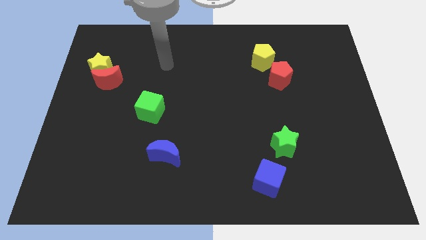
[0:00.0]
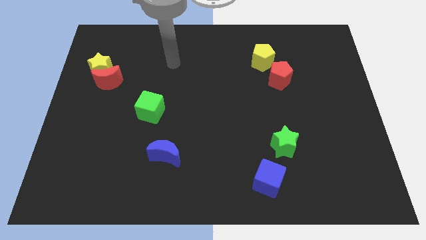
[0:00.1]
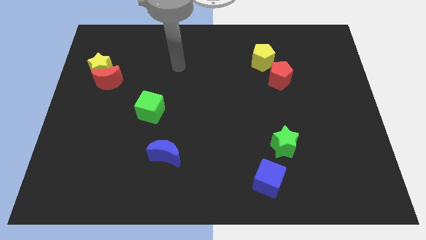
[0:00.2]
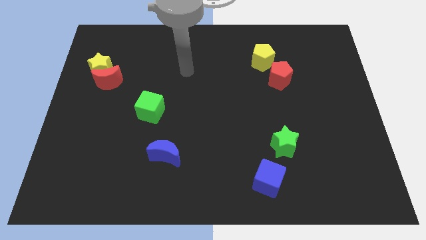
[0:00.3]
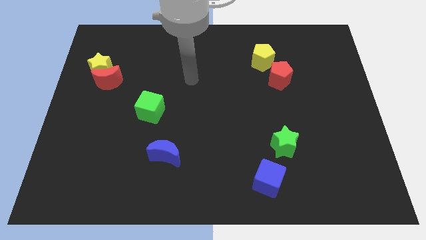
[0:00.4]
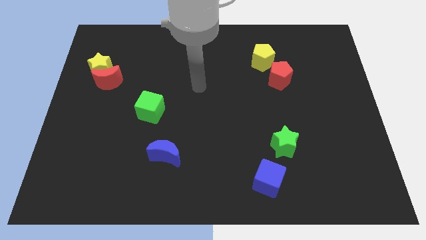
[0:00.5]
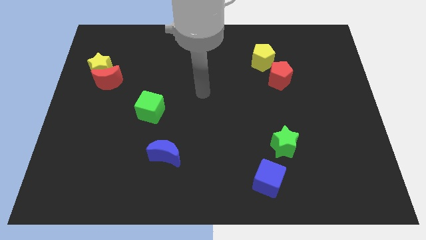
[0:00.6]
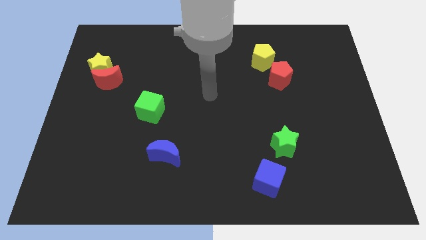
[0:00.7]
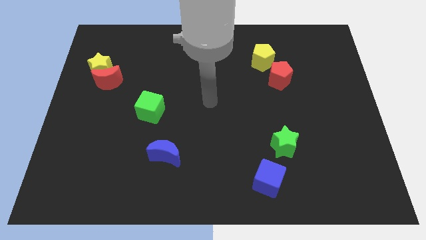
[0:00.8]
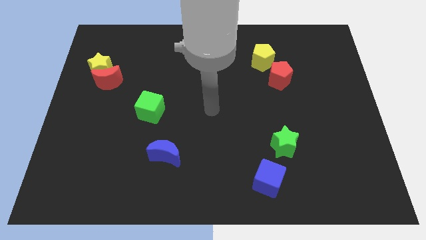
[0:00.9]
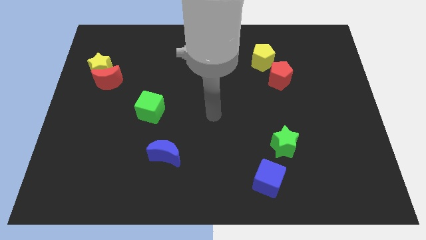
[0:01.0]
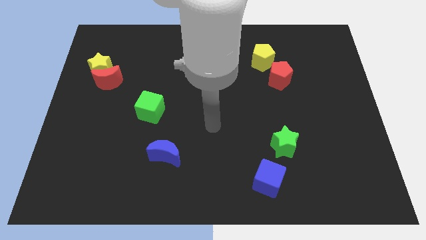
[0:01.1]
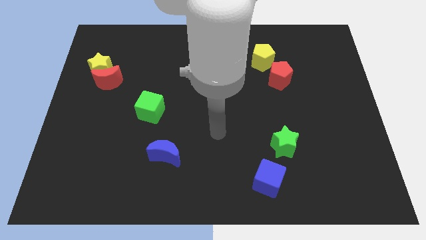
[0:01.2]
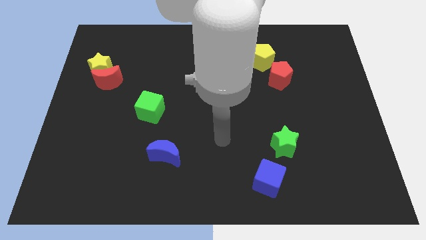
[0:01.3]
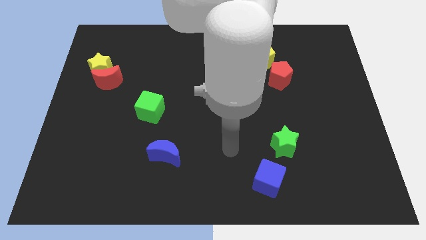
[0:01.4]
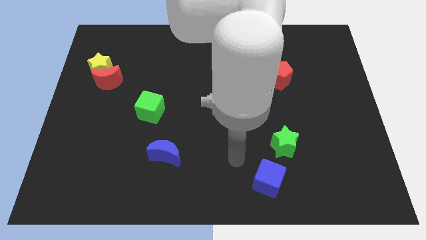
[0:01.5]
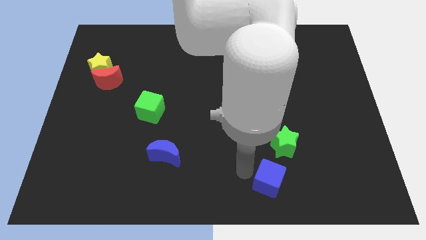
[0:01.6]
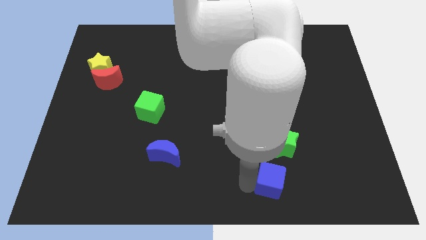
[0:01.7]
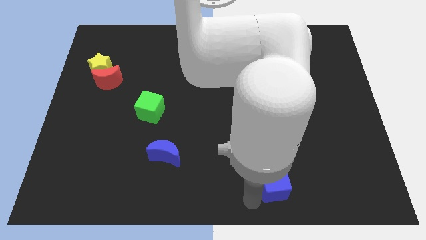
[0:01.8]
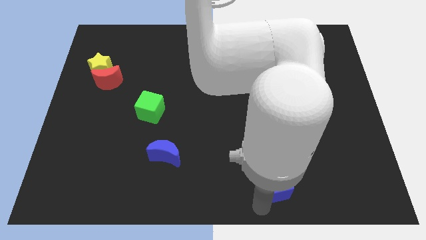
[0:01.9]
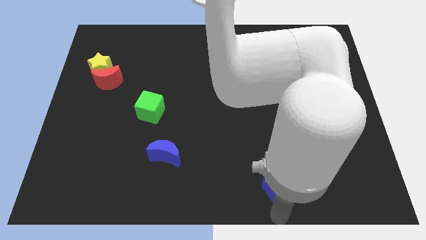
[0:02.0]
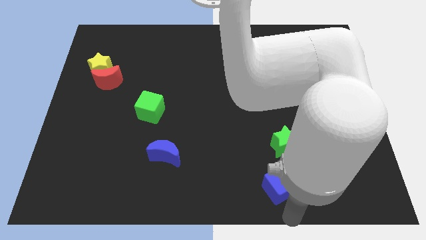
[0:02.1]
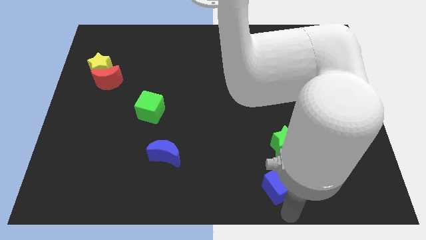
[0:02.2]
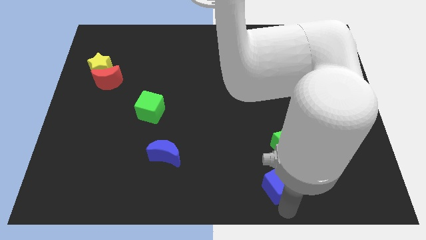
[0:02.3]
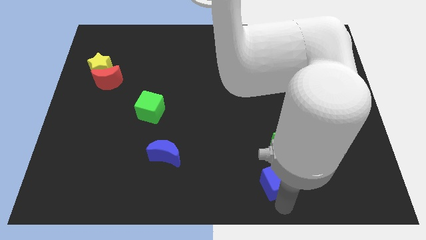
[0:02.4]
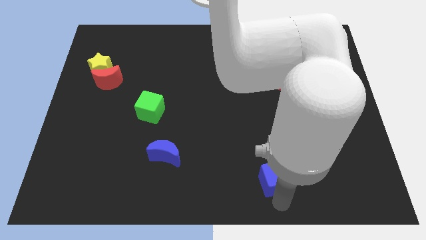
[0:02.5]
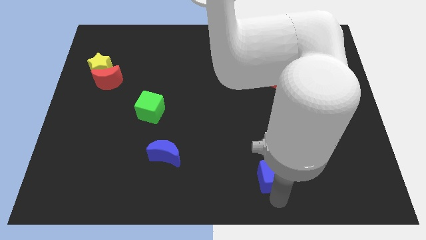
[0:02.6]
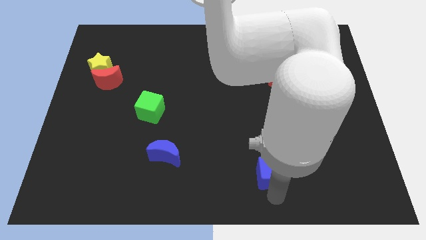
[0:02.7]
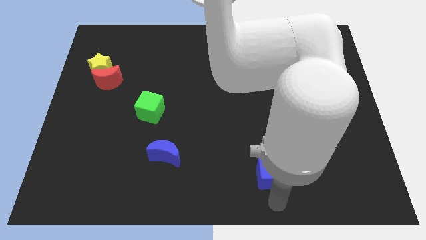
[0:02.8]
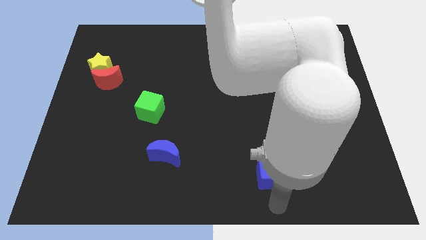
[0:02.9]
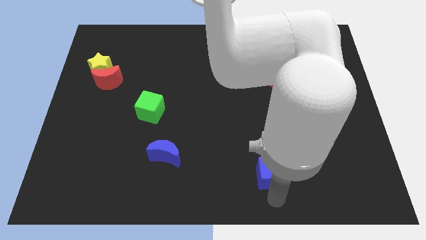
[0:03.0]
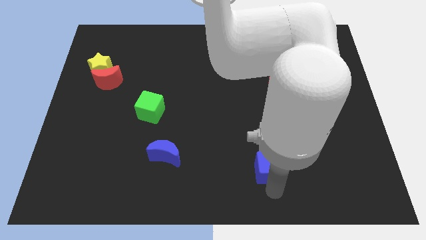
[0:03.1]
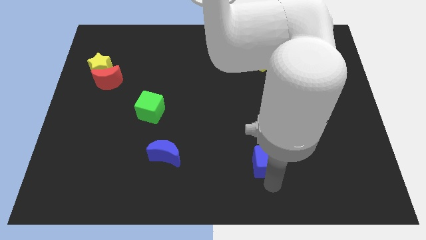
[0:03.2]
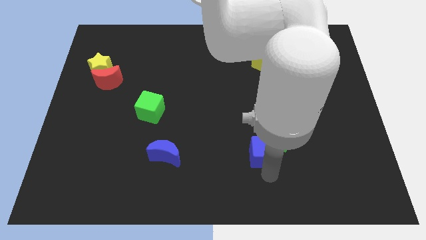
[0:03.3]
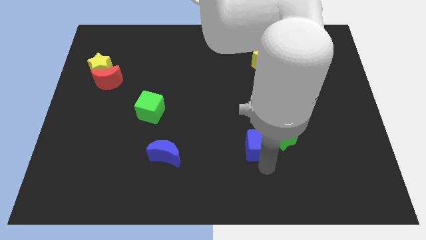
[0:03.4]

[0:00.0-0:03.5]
move the blue cube somewhat upwards

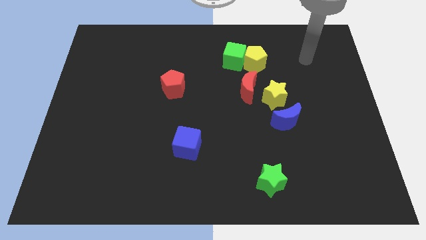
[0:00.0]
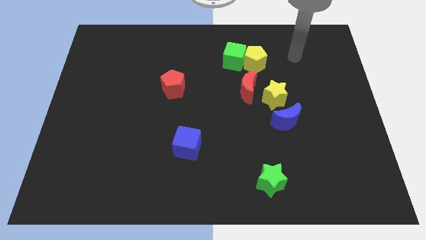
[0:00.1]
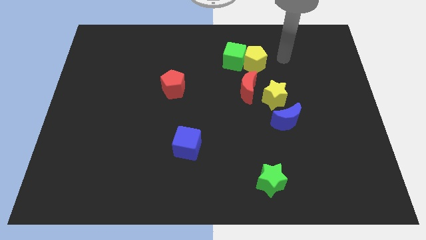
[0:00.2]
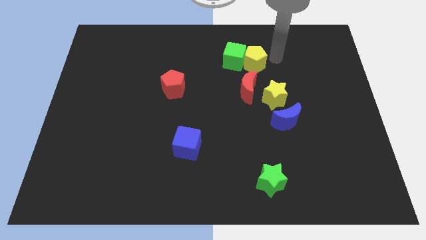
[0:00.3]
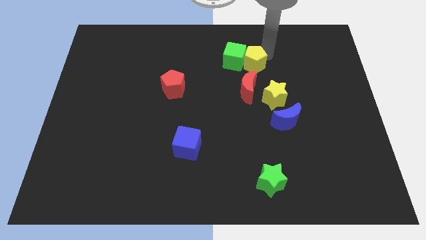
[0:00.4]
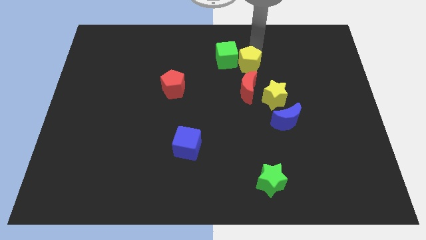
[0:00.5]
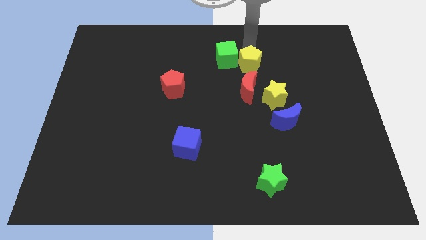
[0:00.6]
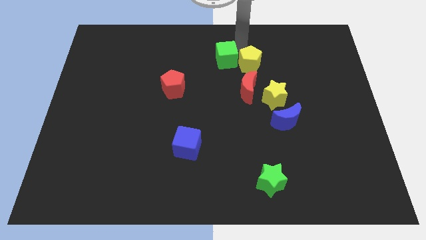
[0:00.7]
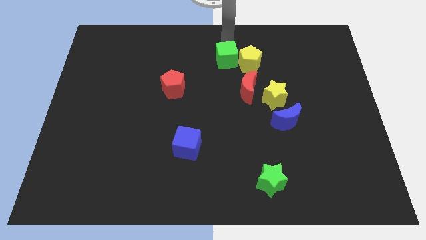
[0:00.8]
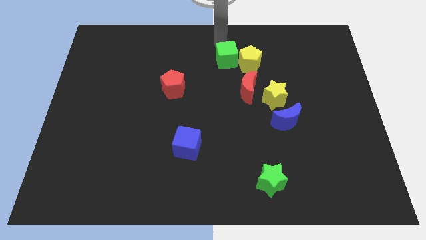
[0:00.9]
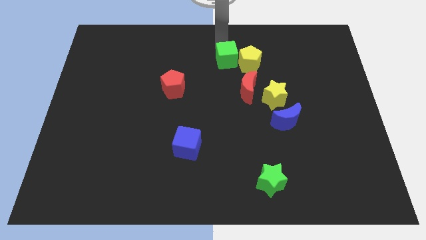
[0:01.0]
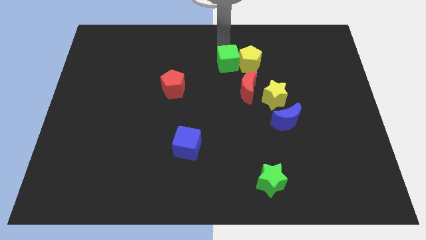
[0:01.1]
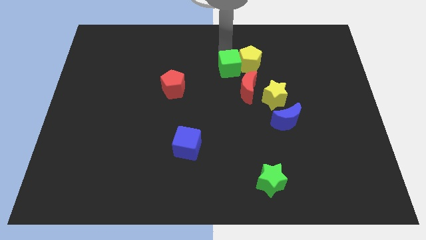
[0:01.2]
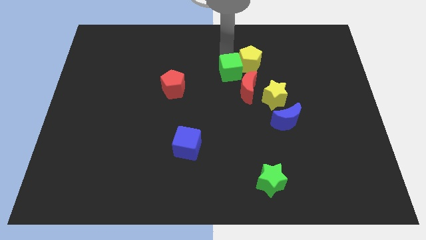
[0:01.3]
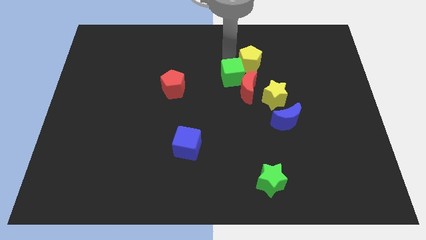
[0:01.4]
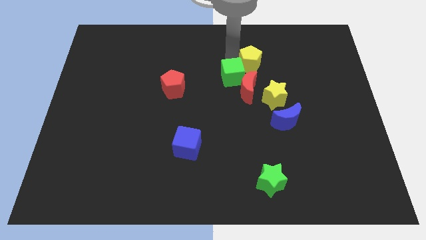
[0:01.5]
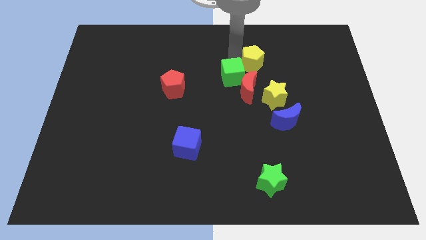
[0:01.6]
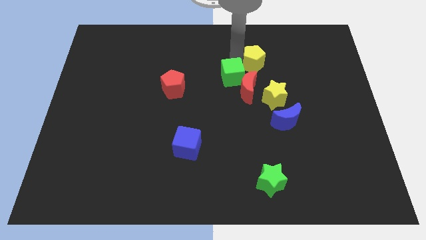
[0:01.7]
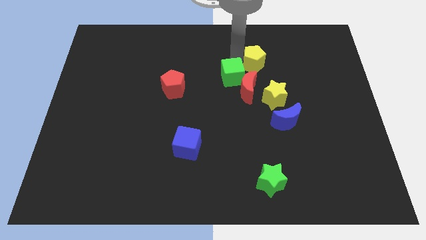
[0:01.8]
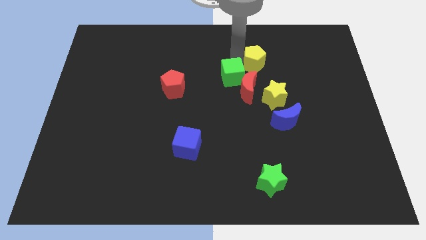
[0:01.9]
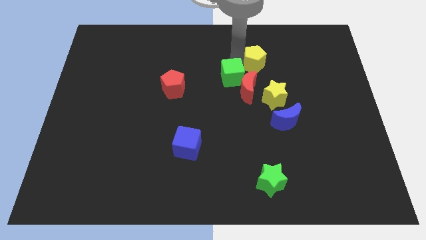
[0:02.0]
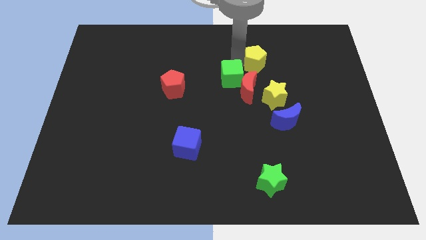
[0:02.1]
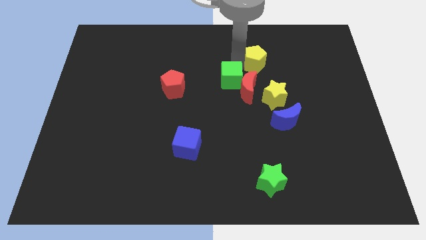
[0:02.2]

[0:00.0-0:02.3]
move the green cube a bit downwards

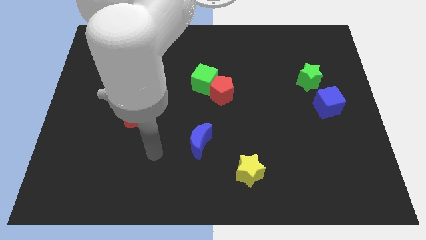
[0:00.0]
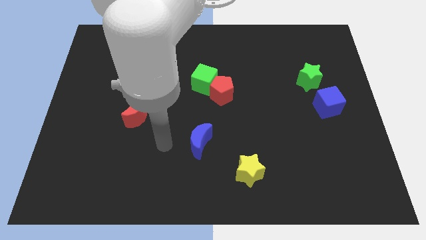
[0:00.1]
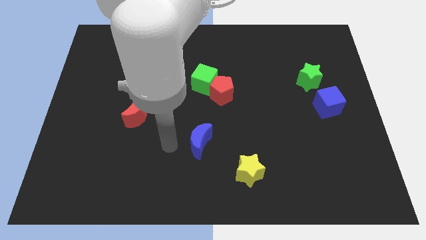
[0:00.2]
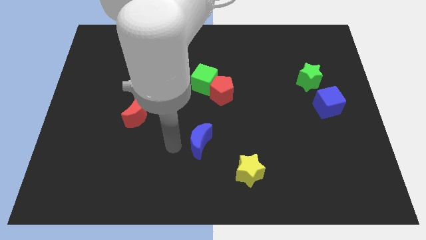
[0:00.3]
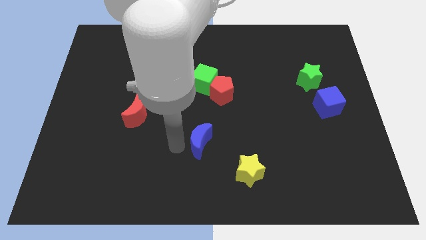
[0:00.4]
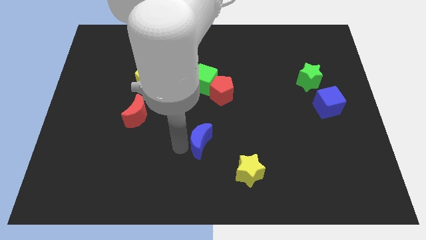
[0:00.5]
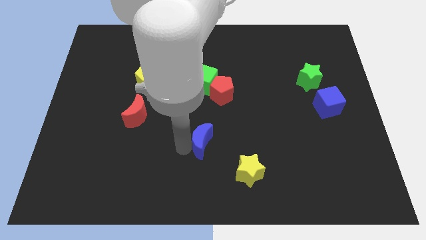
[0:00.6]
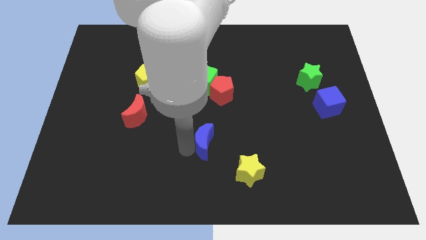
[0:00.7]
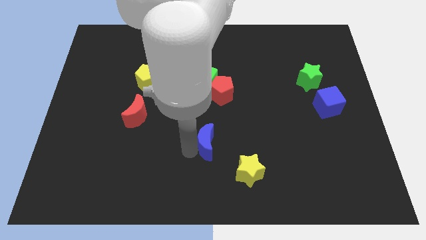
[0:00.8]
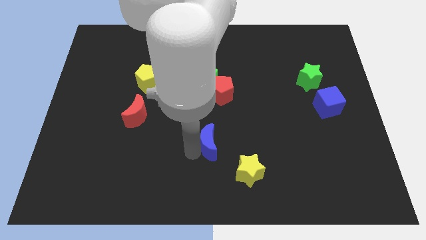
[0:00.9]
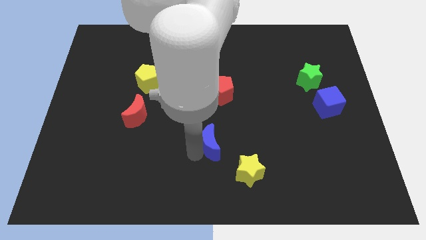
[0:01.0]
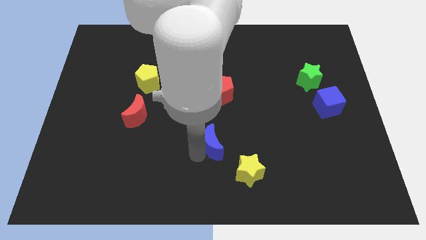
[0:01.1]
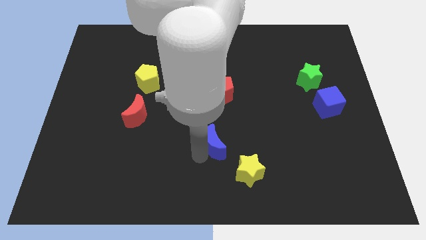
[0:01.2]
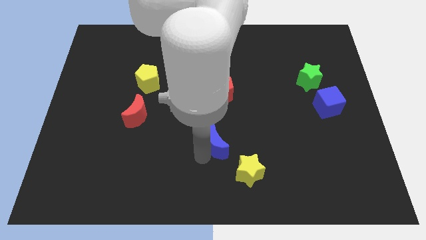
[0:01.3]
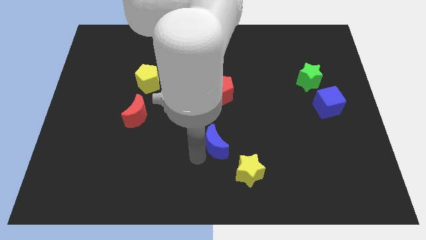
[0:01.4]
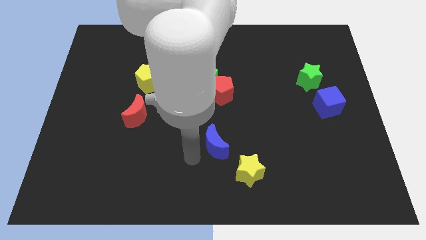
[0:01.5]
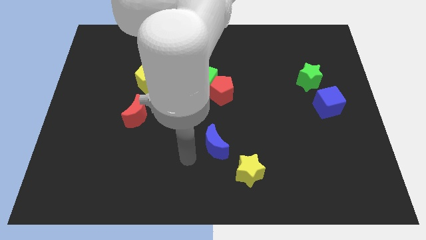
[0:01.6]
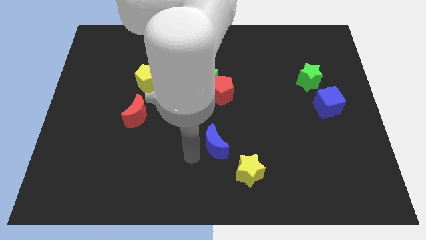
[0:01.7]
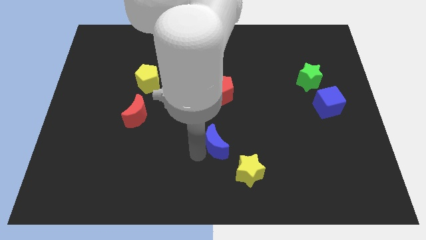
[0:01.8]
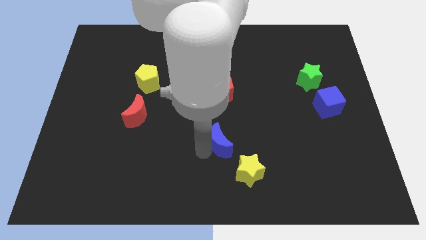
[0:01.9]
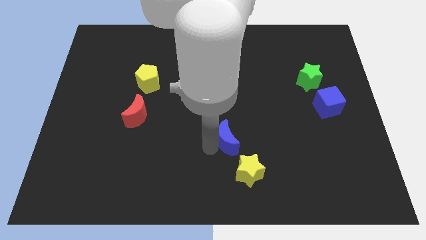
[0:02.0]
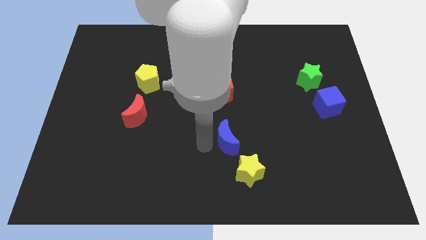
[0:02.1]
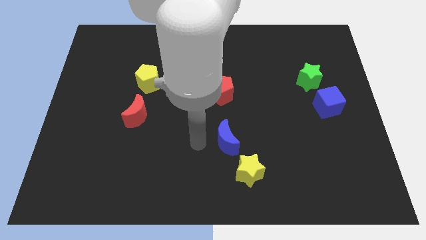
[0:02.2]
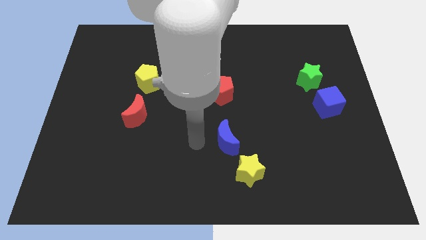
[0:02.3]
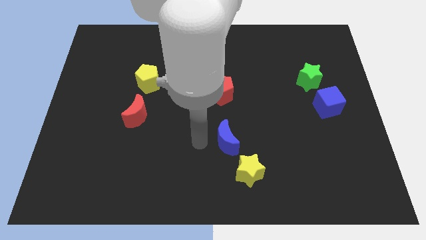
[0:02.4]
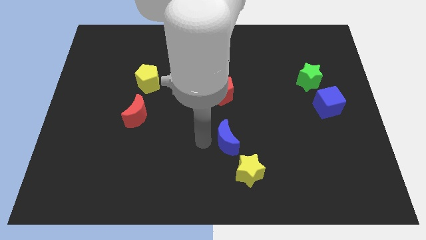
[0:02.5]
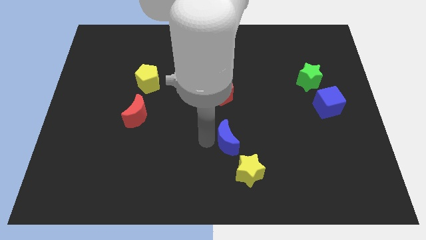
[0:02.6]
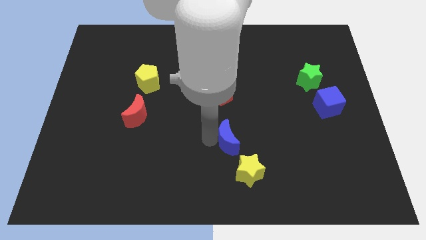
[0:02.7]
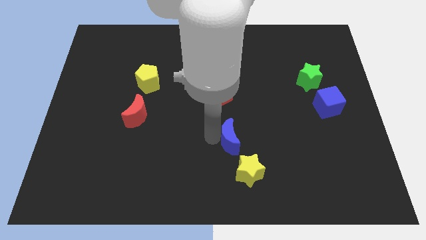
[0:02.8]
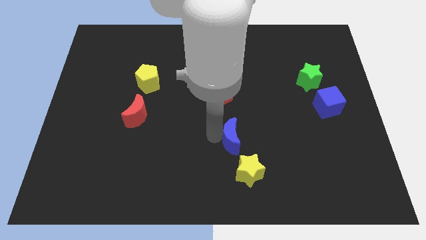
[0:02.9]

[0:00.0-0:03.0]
slide the blue moon a little bit right
